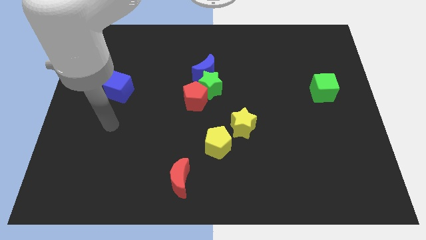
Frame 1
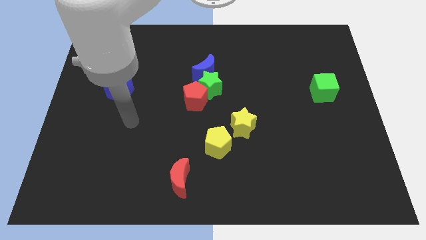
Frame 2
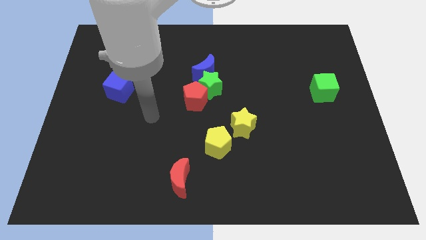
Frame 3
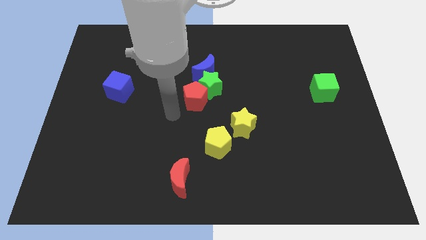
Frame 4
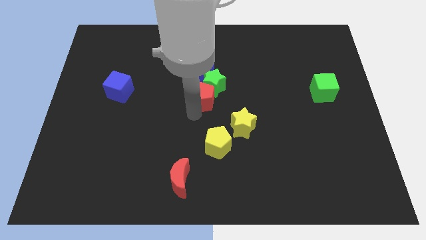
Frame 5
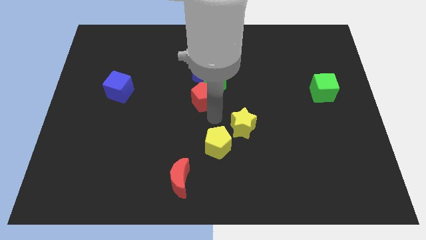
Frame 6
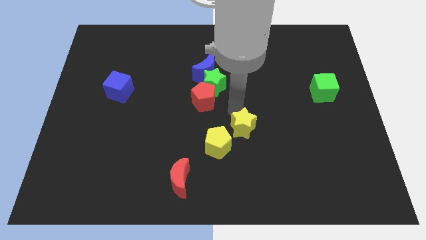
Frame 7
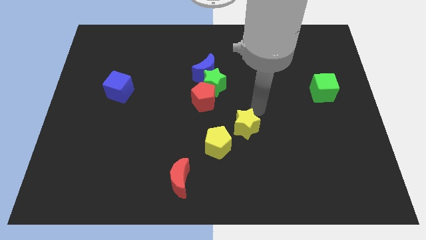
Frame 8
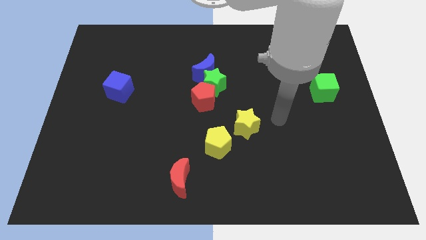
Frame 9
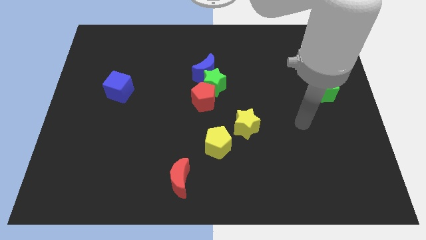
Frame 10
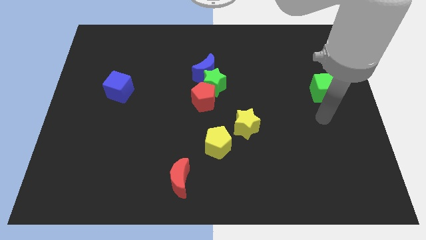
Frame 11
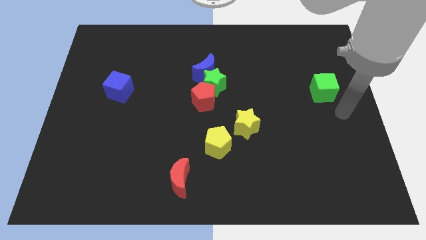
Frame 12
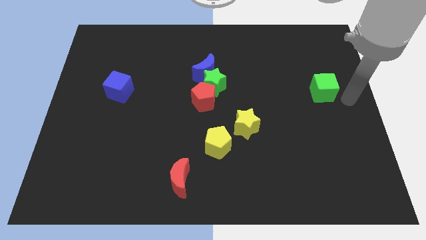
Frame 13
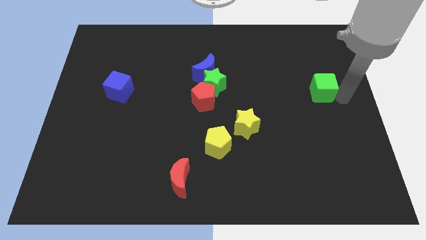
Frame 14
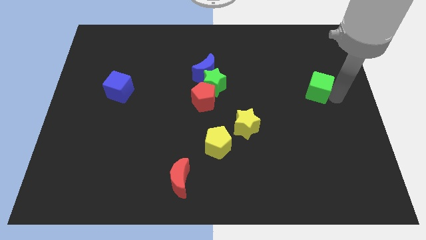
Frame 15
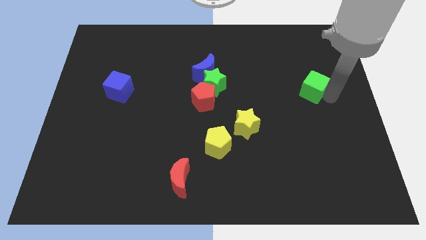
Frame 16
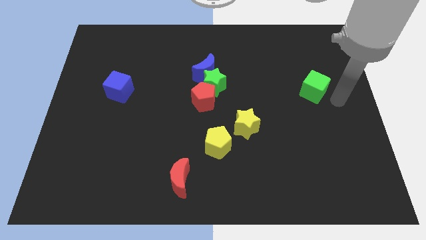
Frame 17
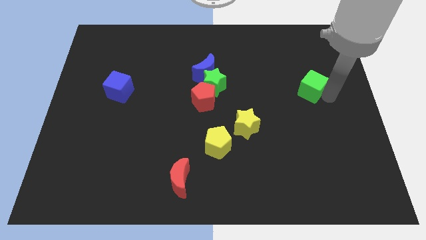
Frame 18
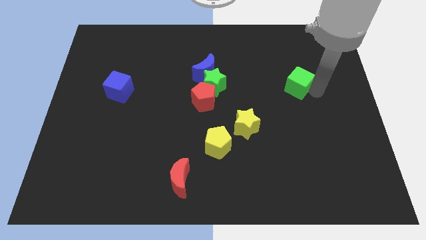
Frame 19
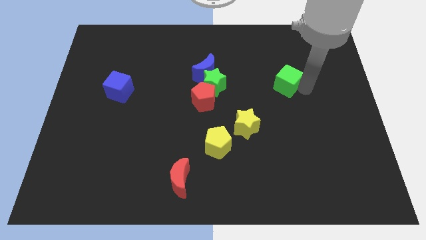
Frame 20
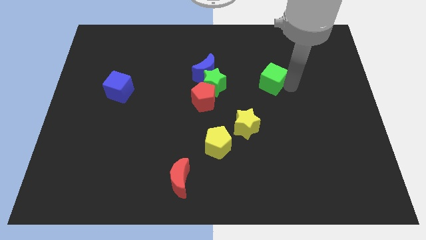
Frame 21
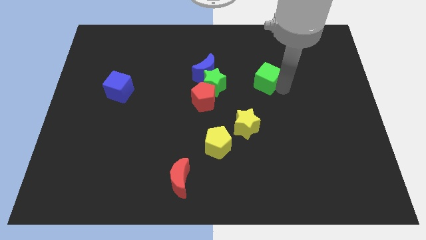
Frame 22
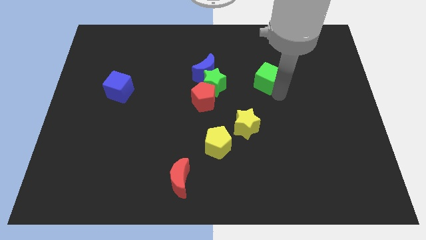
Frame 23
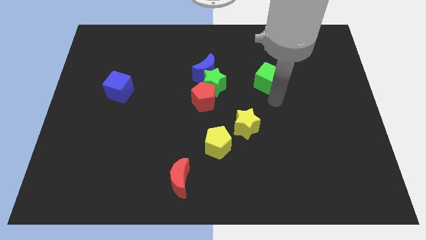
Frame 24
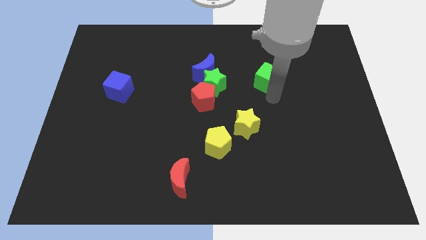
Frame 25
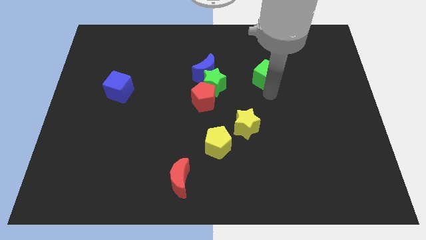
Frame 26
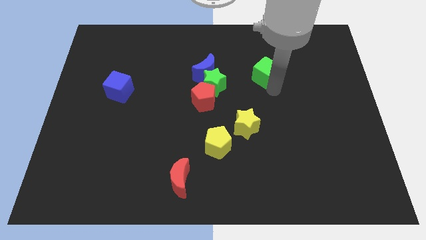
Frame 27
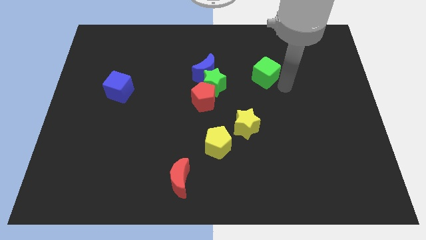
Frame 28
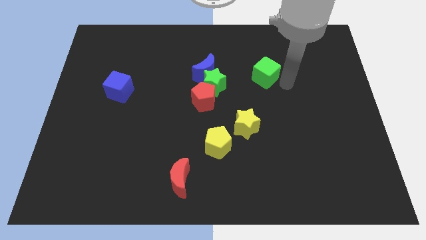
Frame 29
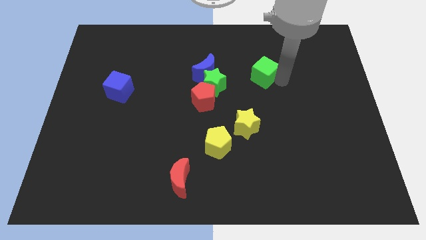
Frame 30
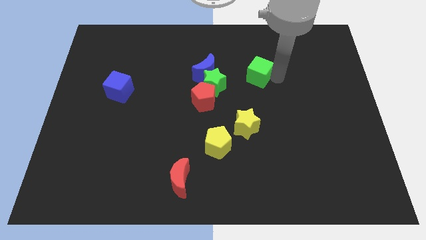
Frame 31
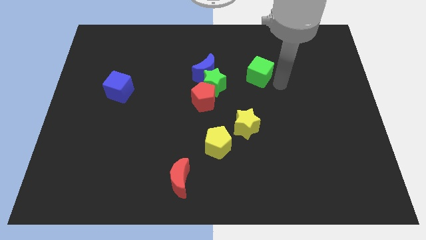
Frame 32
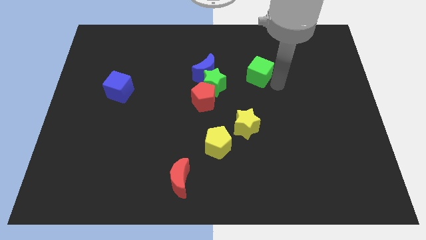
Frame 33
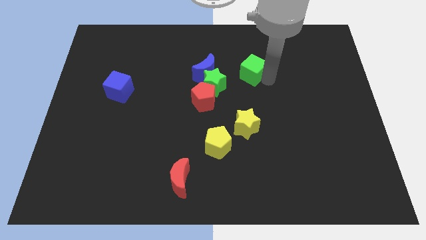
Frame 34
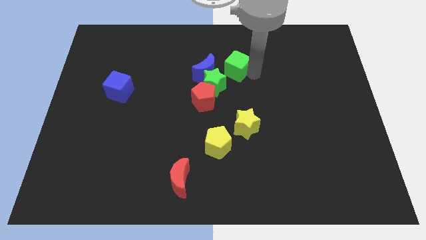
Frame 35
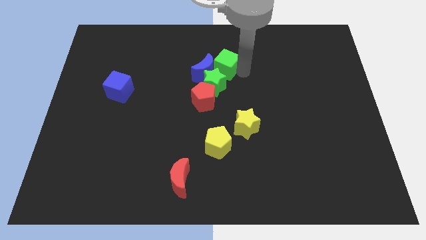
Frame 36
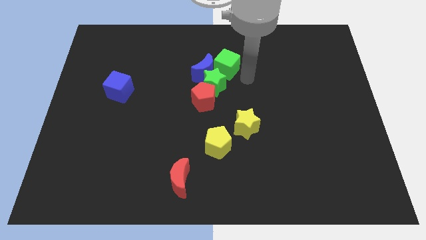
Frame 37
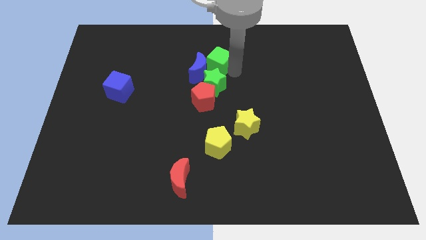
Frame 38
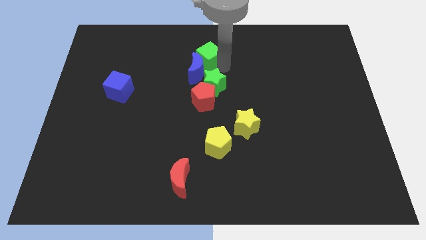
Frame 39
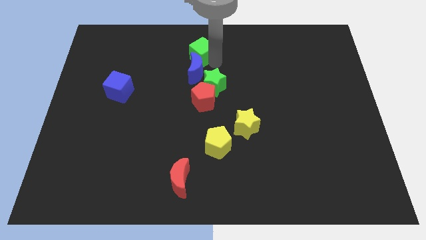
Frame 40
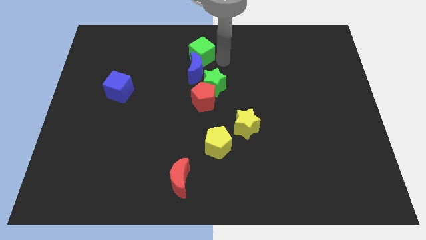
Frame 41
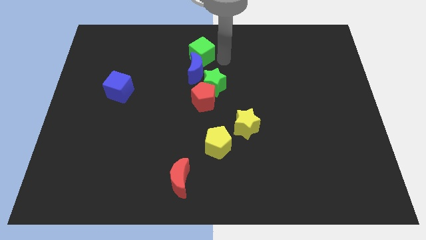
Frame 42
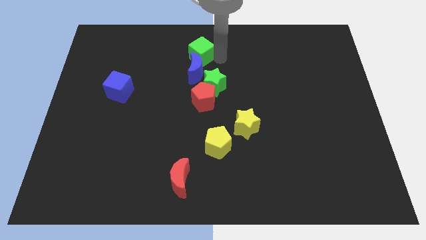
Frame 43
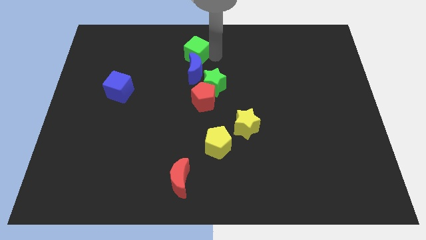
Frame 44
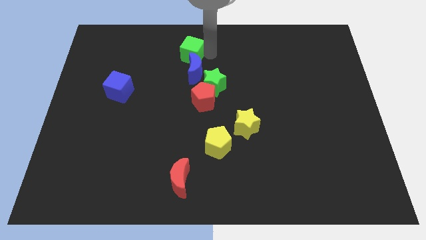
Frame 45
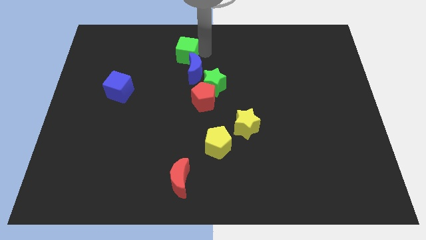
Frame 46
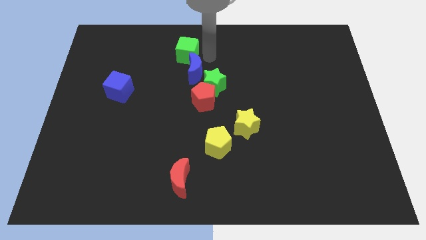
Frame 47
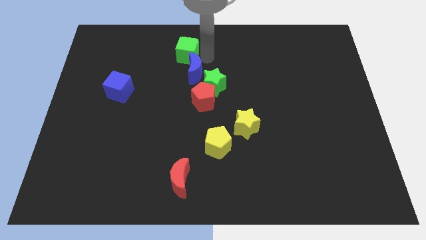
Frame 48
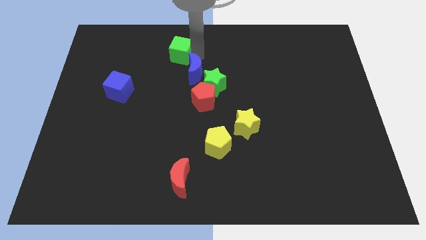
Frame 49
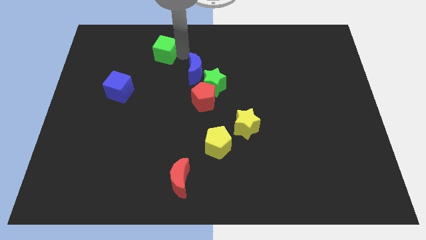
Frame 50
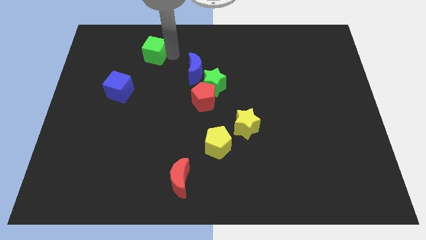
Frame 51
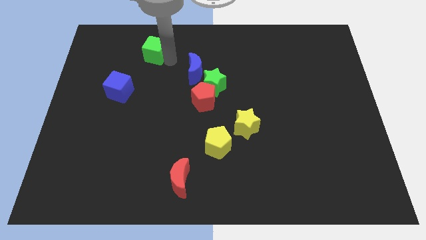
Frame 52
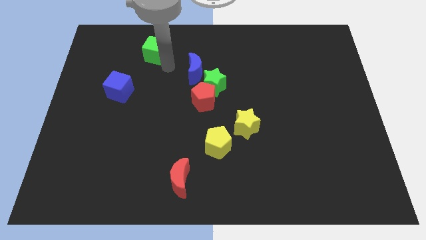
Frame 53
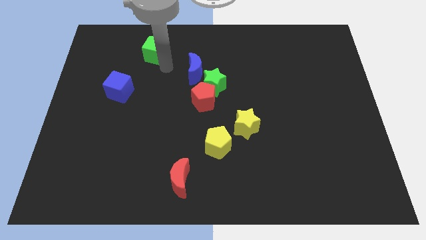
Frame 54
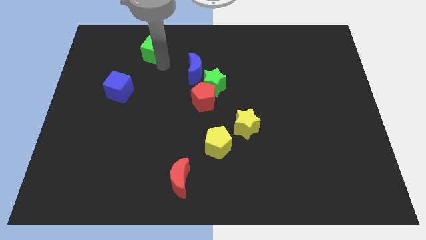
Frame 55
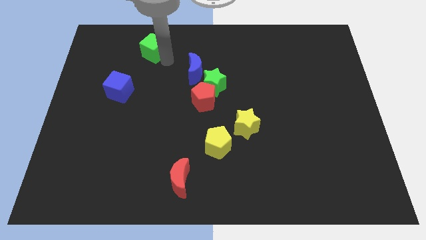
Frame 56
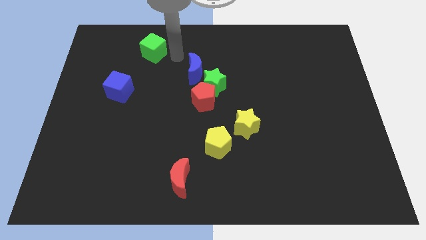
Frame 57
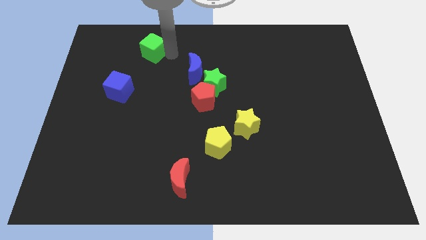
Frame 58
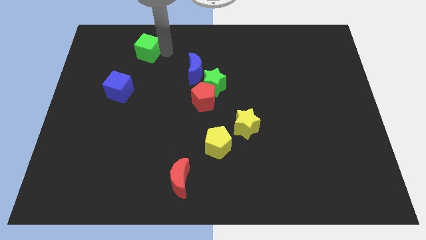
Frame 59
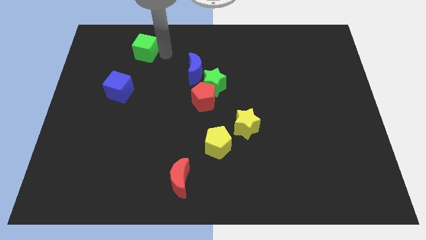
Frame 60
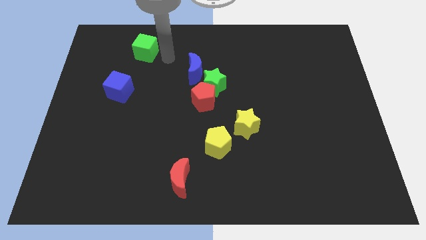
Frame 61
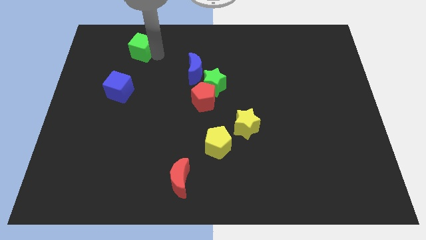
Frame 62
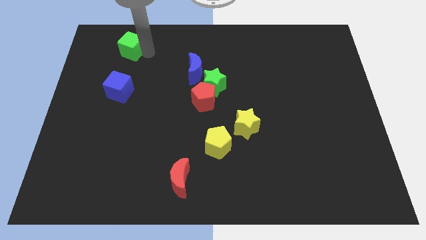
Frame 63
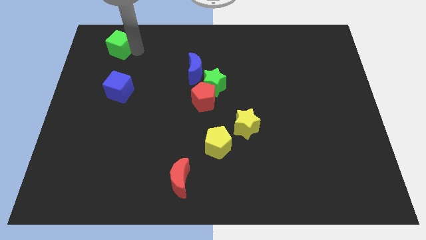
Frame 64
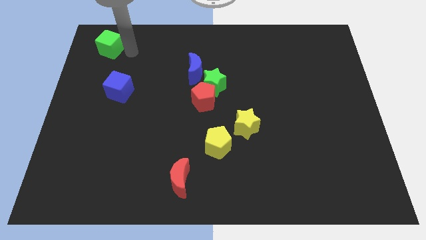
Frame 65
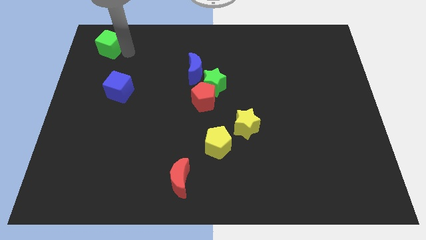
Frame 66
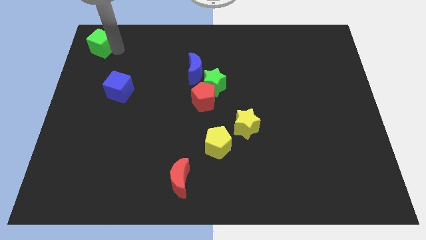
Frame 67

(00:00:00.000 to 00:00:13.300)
push the green cube to the upper left corner
